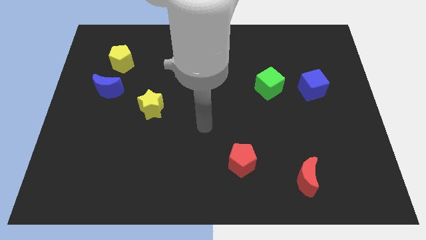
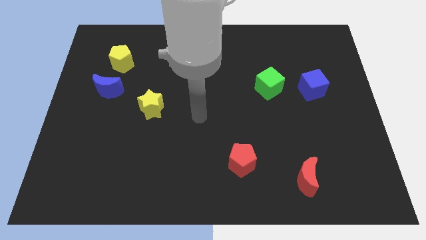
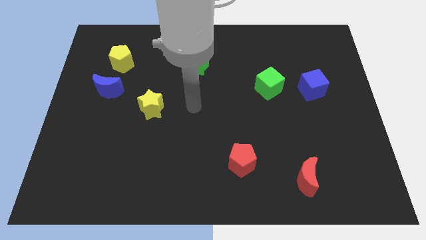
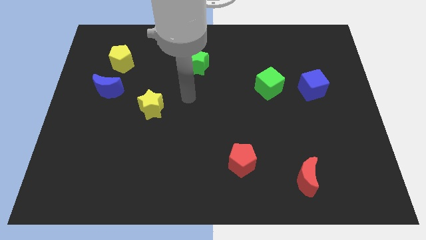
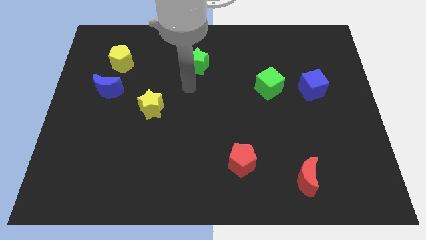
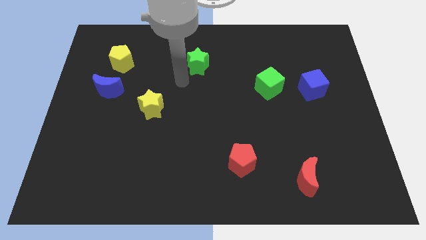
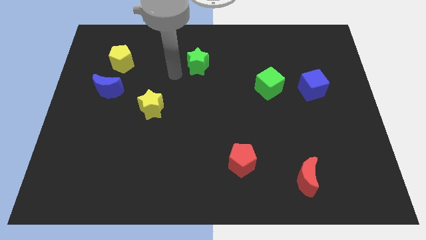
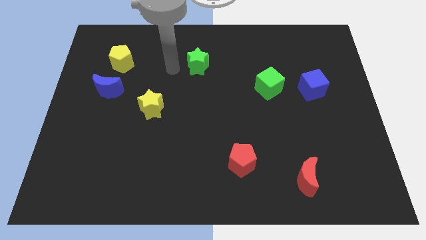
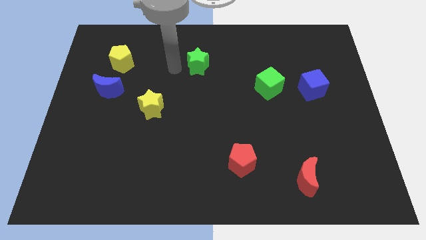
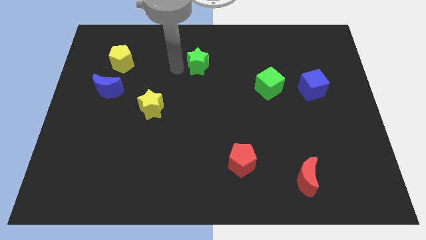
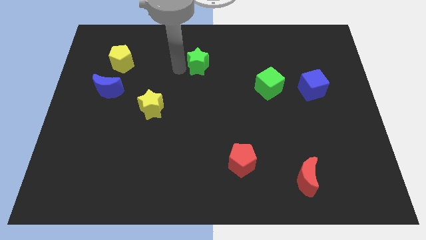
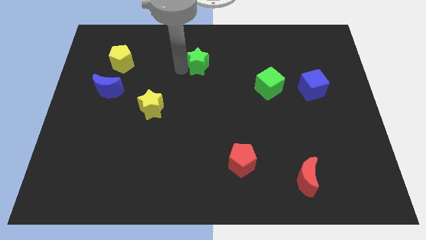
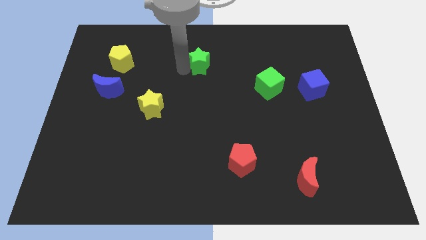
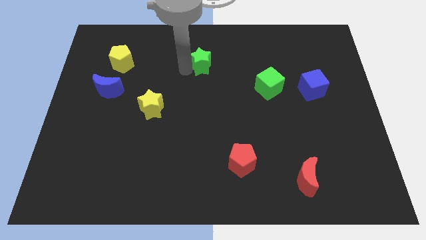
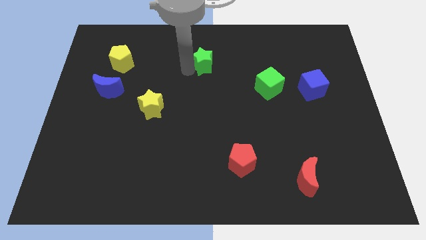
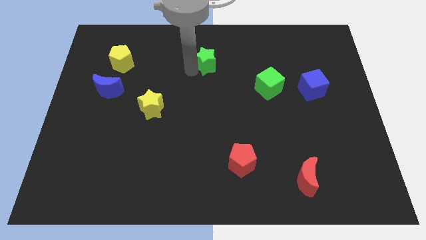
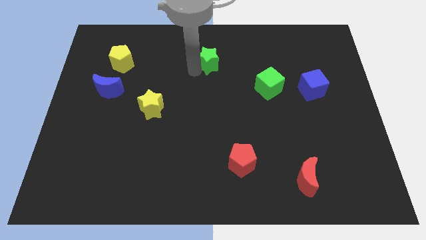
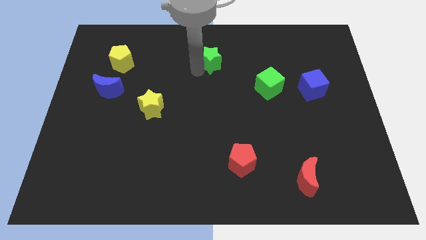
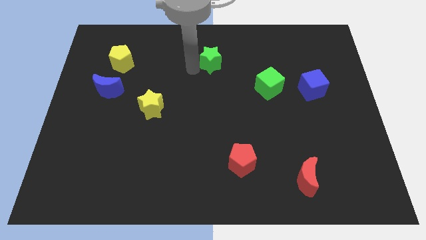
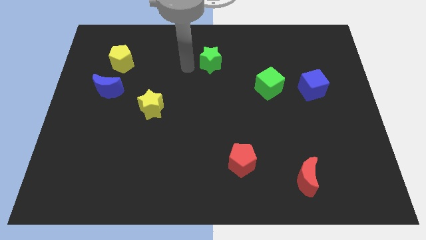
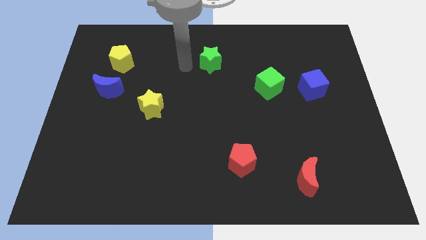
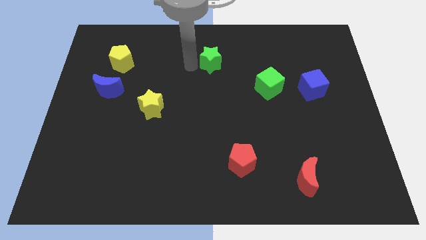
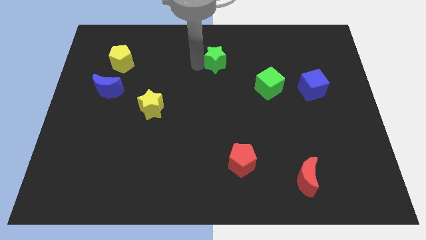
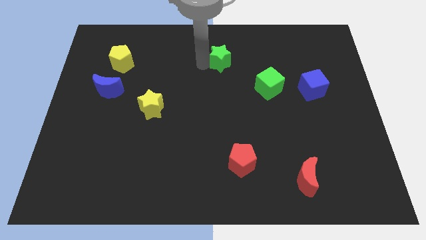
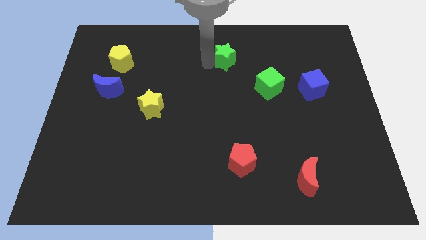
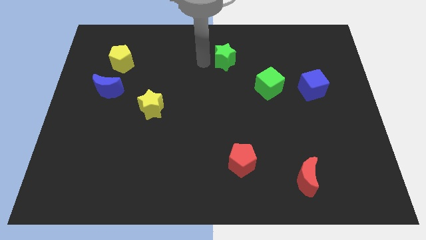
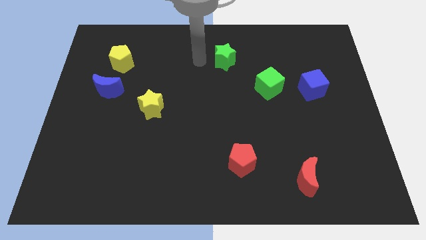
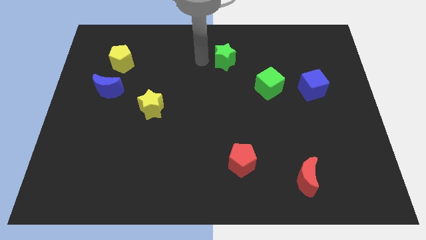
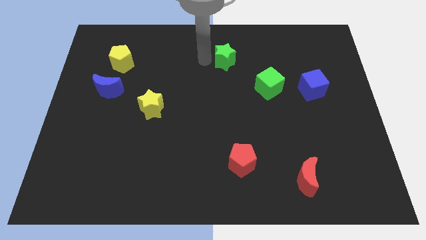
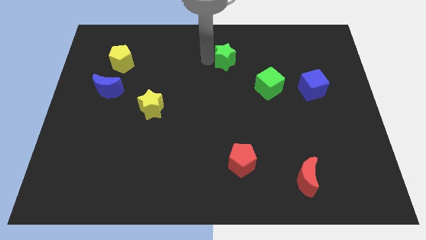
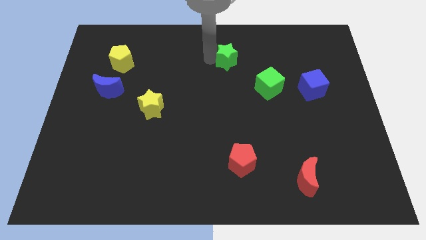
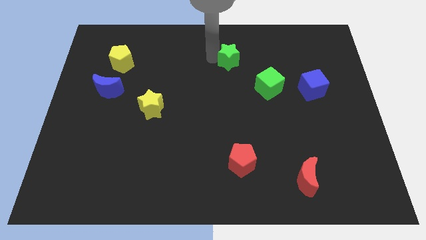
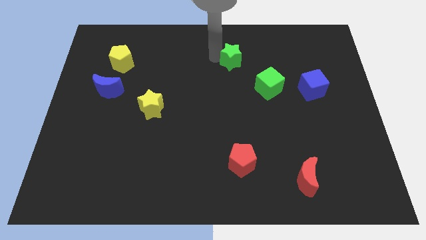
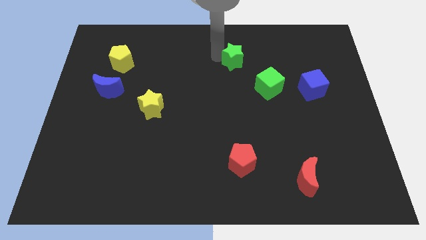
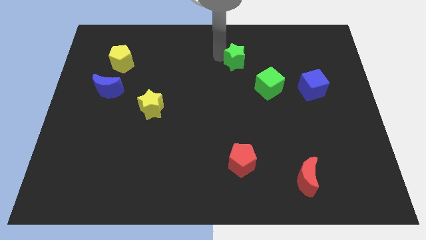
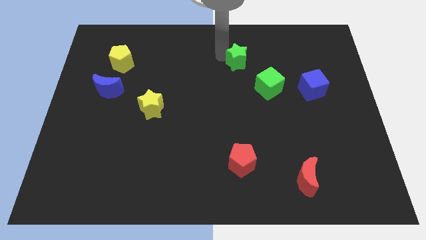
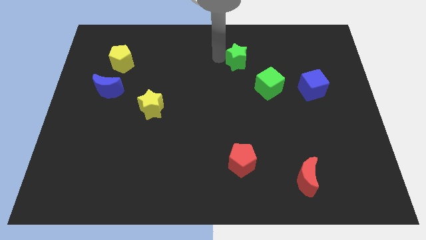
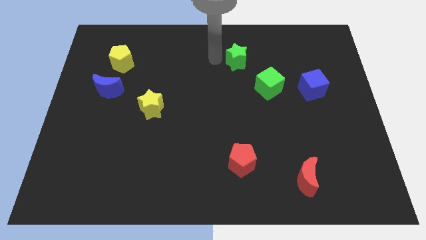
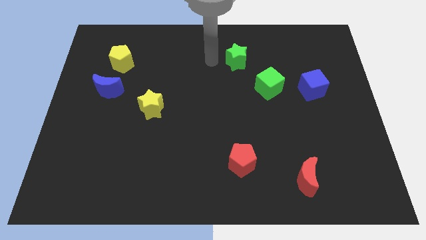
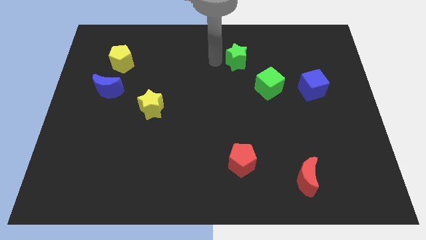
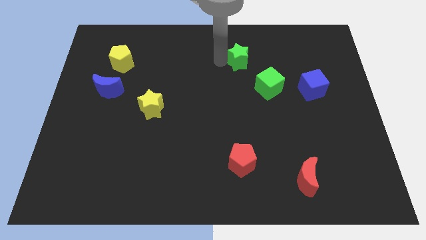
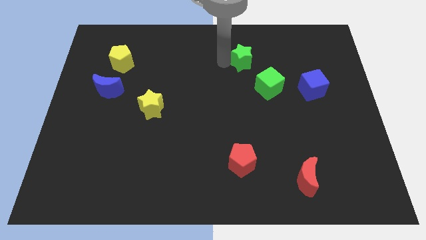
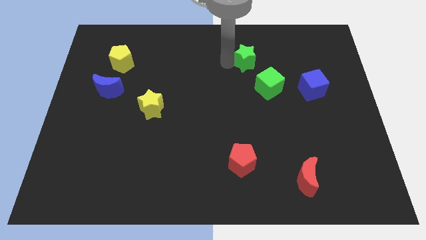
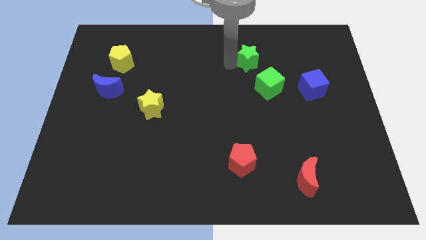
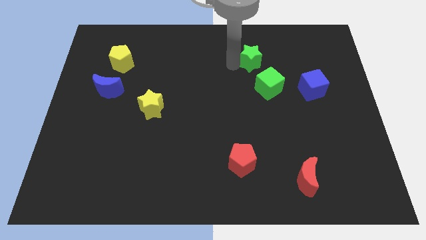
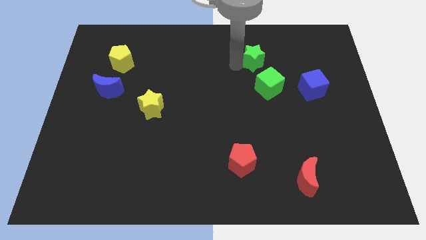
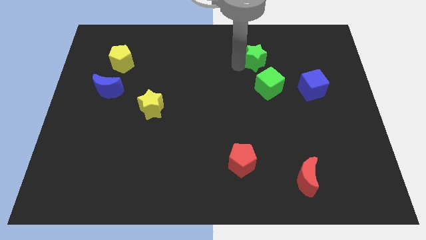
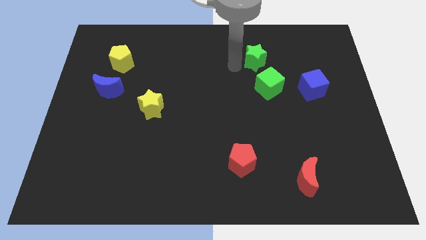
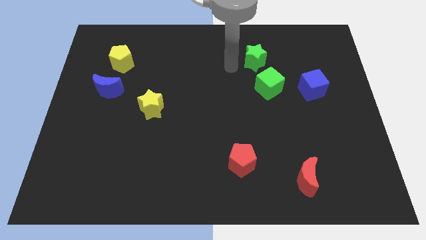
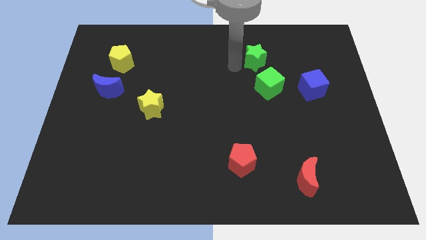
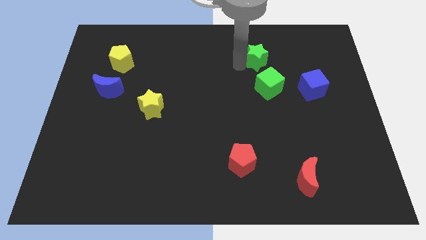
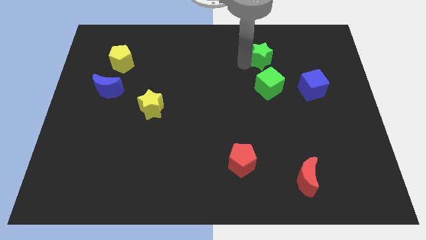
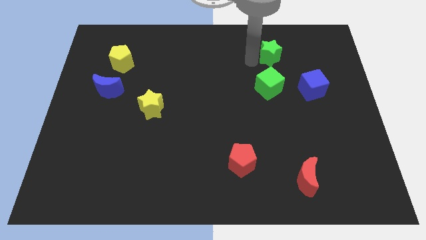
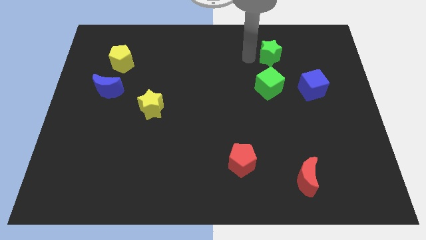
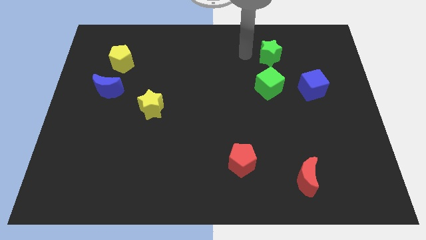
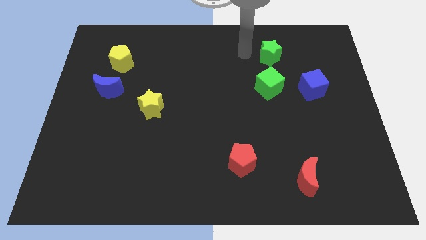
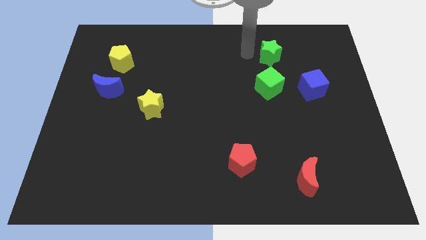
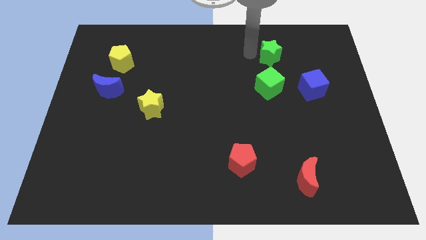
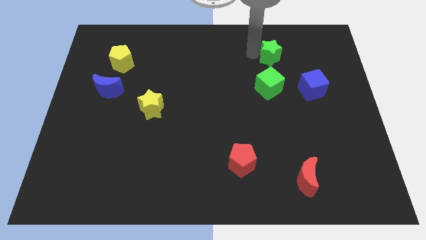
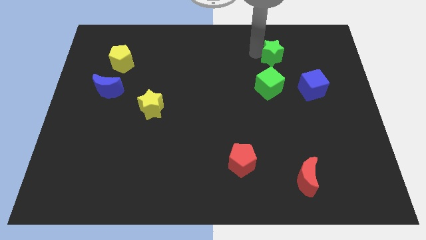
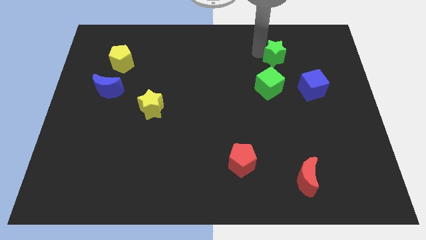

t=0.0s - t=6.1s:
push the green star right

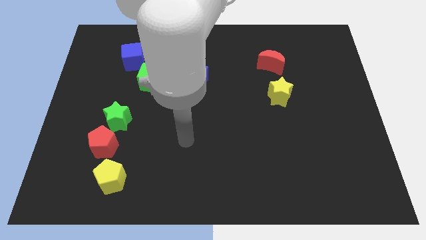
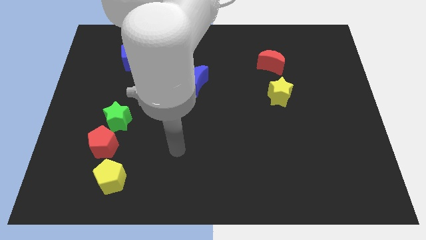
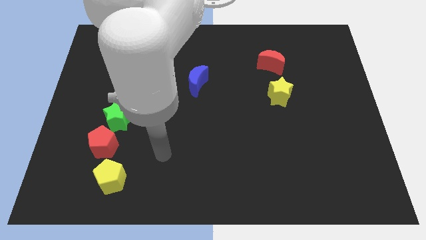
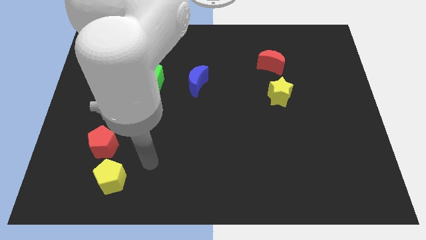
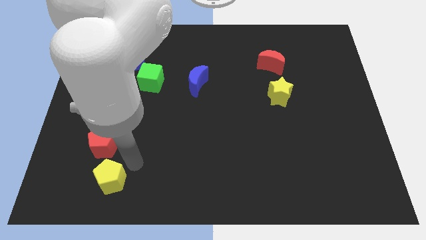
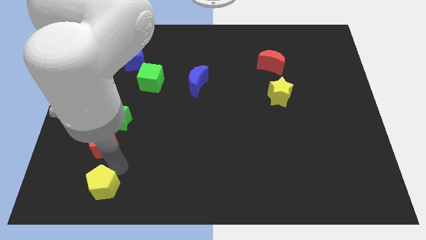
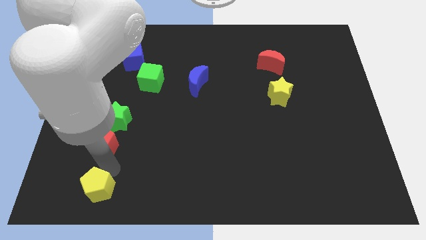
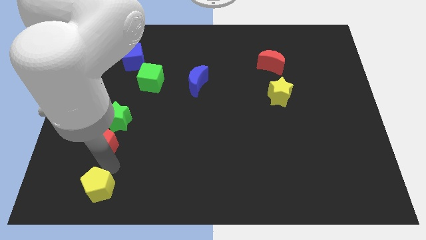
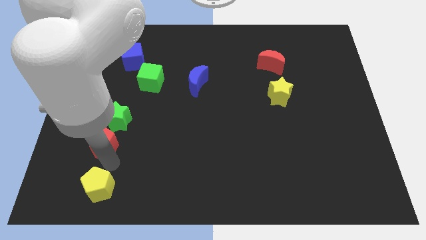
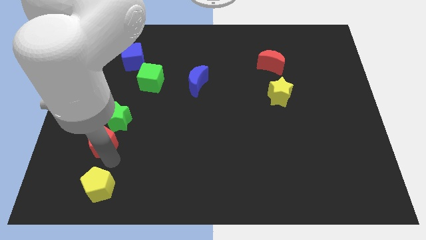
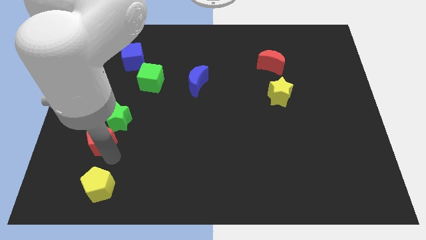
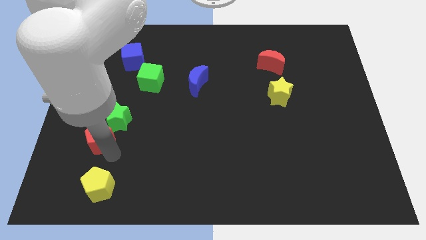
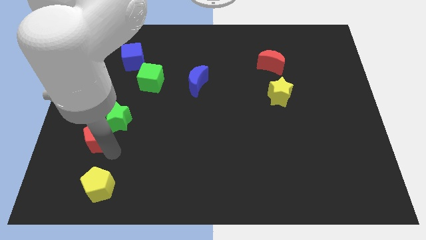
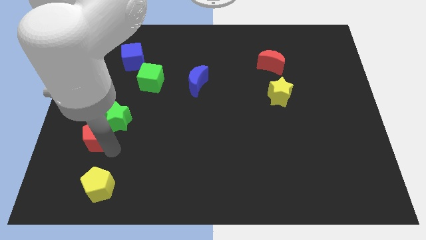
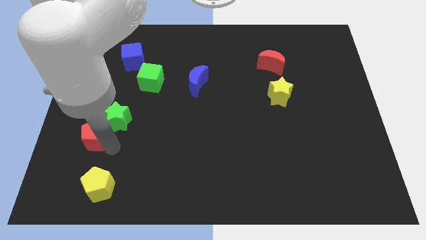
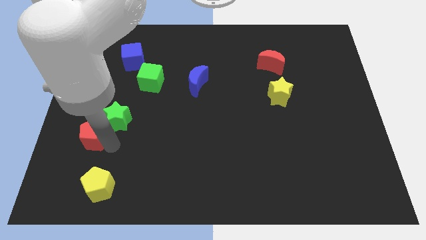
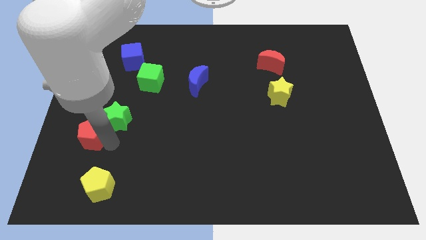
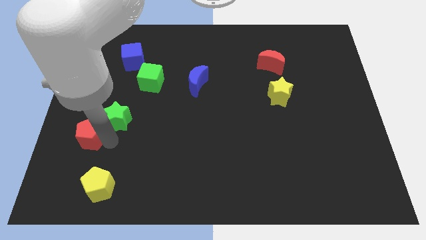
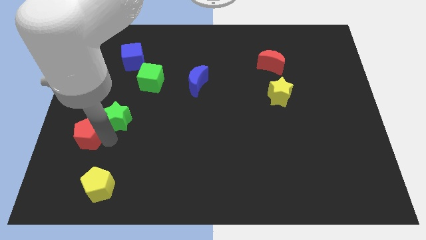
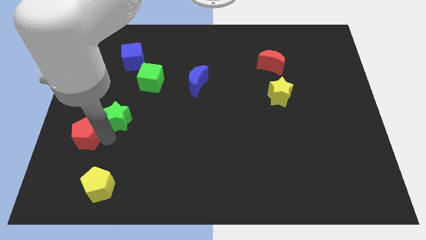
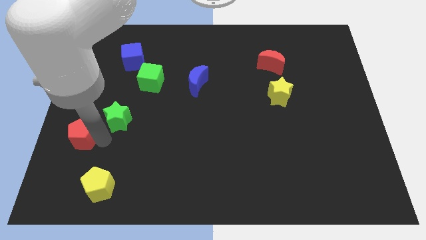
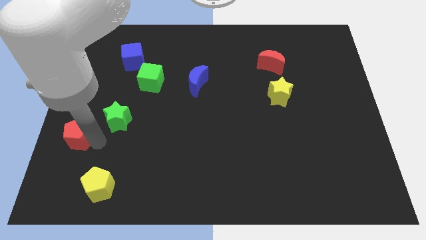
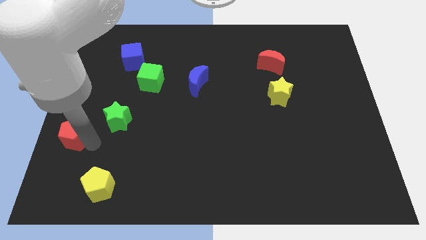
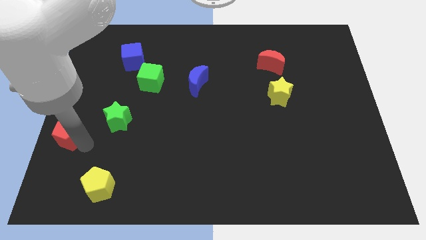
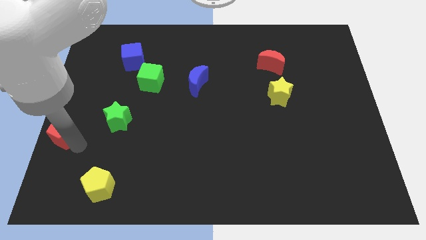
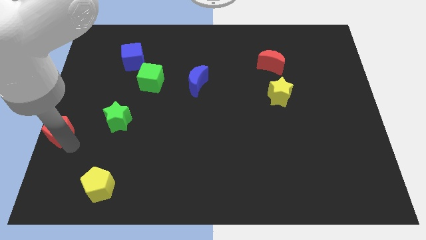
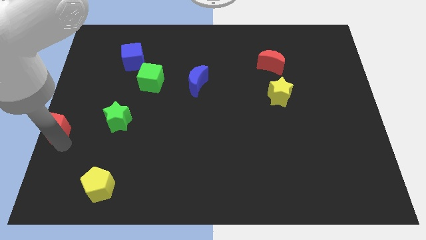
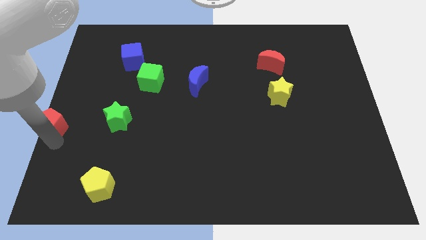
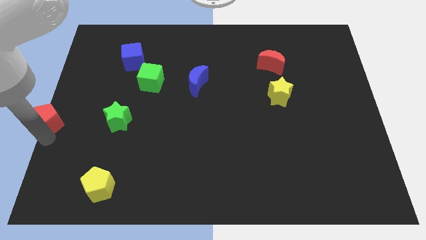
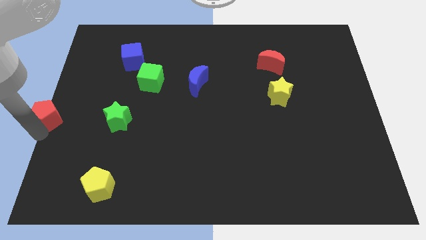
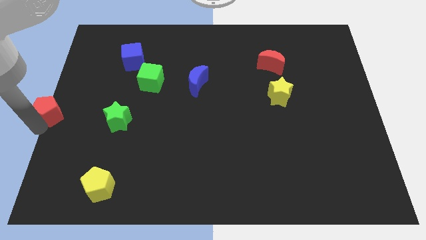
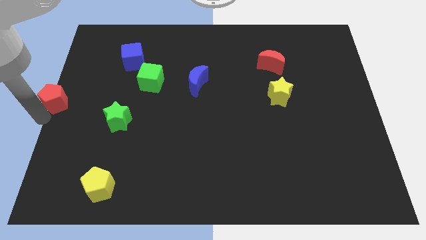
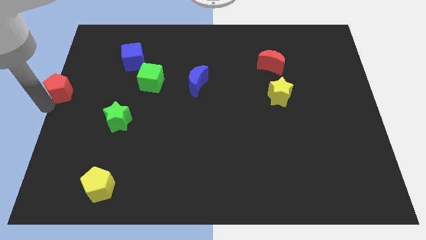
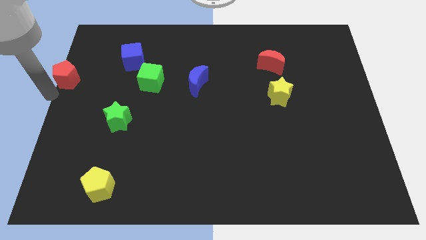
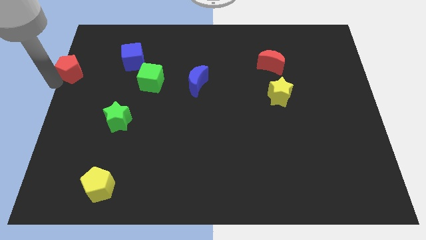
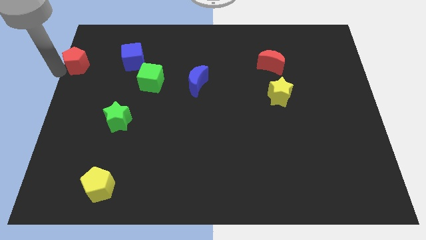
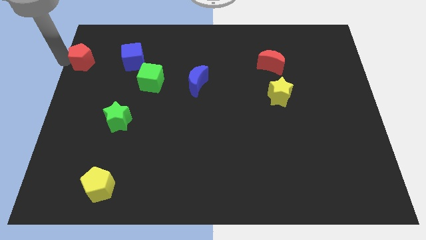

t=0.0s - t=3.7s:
move the red pentagon a little bit upwards
